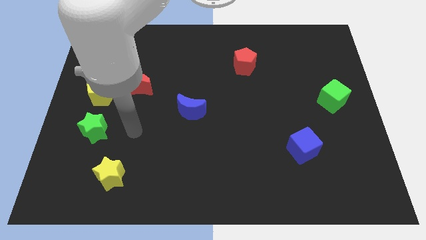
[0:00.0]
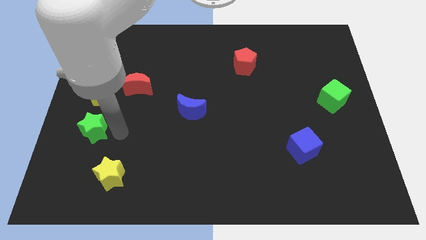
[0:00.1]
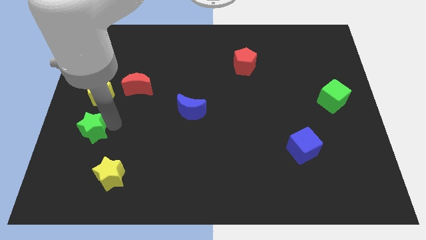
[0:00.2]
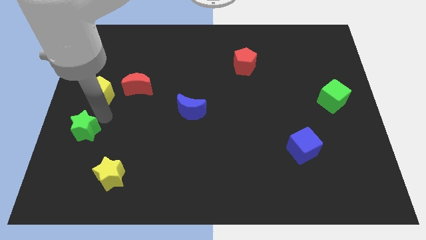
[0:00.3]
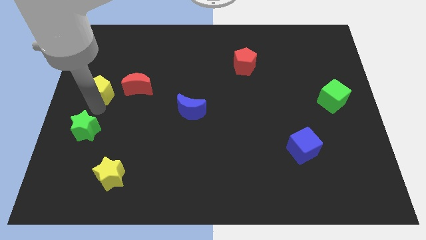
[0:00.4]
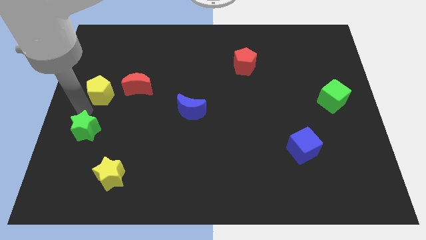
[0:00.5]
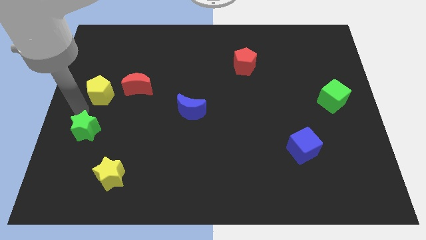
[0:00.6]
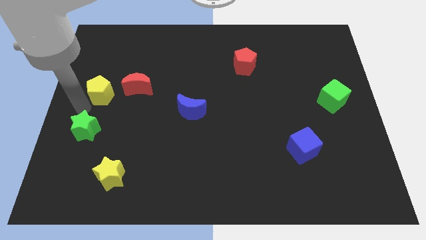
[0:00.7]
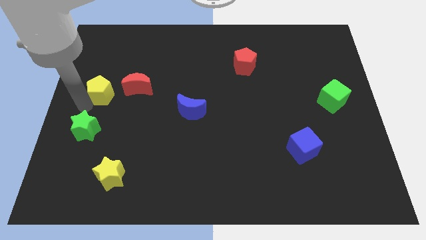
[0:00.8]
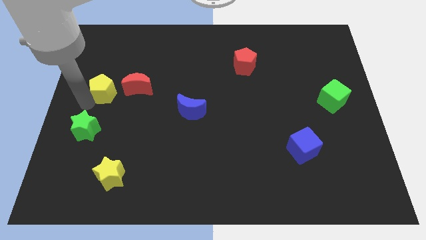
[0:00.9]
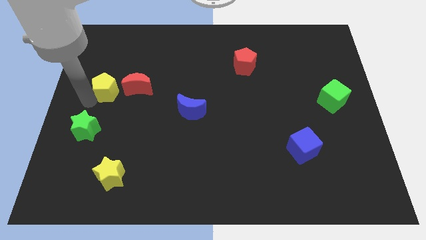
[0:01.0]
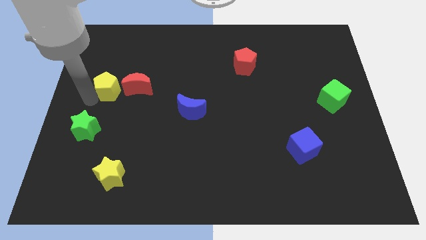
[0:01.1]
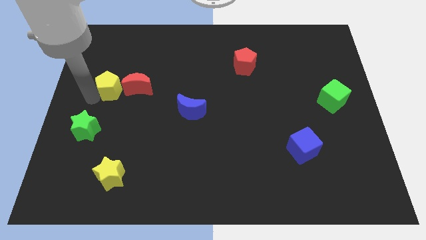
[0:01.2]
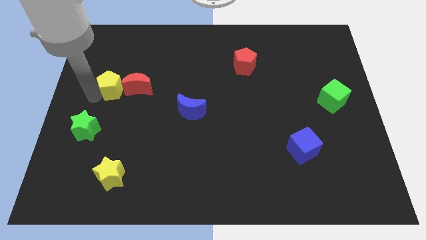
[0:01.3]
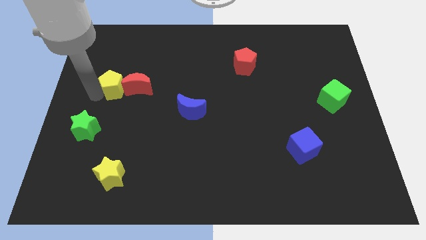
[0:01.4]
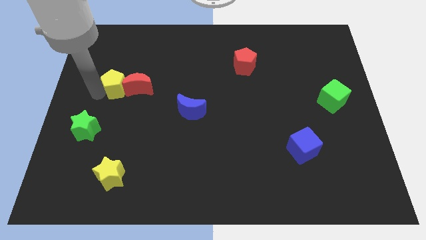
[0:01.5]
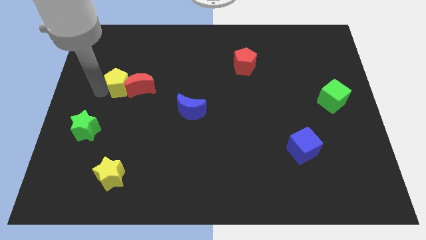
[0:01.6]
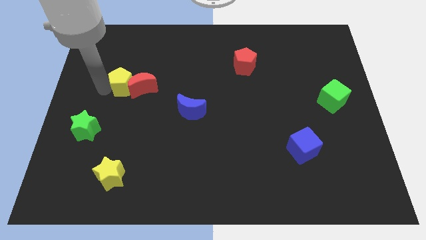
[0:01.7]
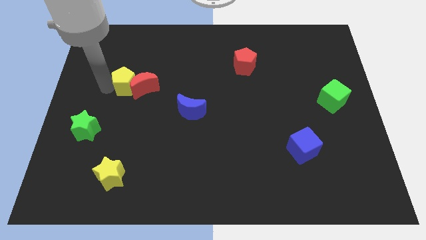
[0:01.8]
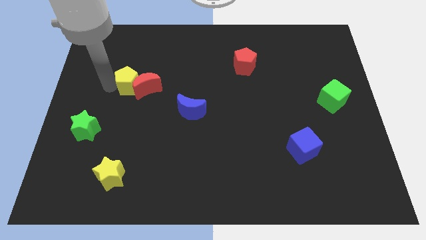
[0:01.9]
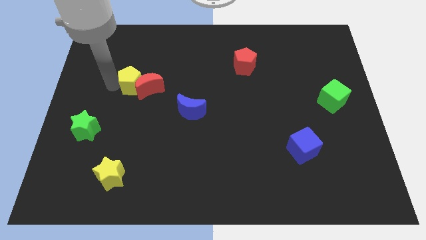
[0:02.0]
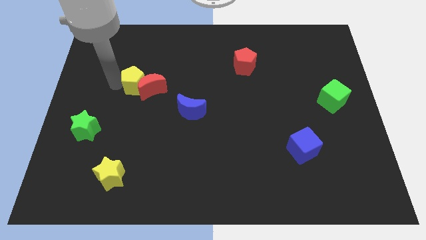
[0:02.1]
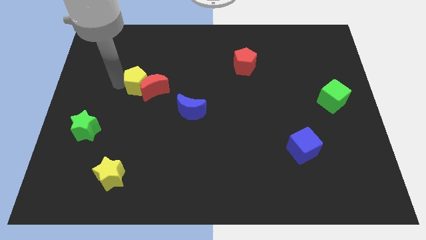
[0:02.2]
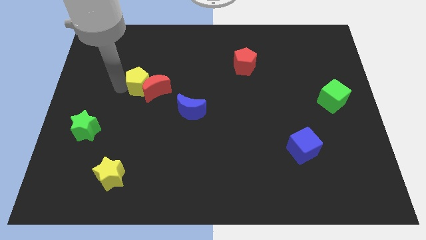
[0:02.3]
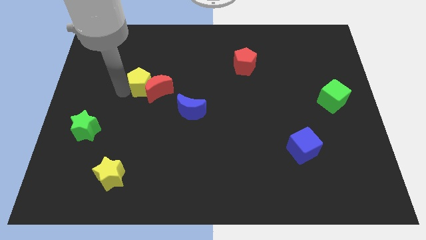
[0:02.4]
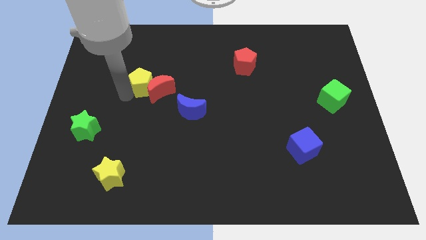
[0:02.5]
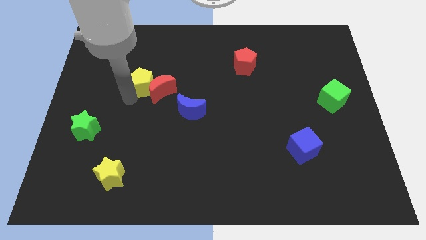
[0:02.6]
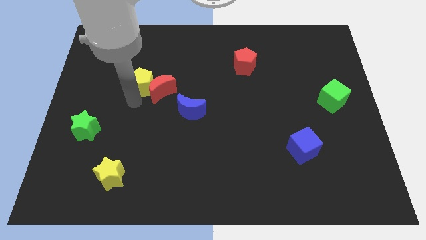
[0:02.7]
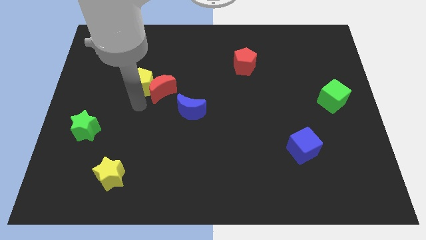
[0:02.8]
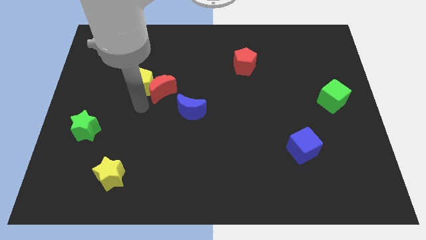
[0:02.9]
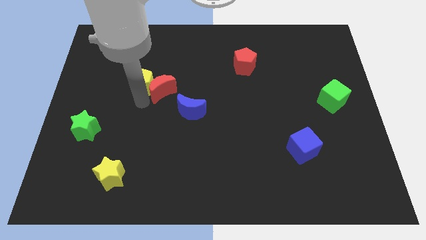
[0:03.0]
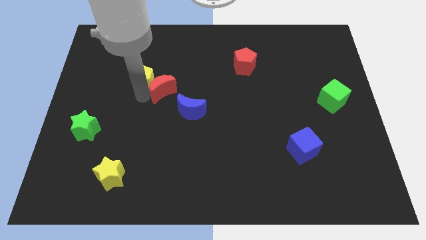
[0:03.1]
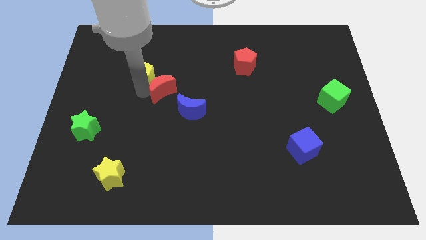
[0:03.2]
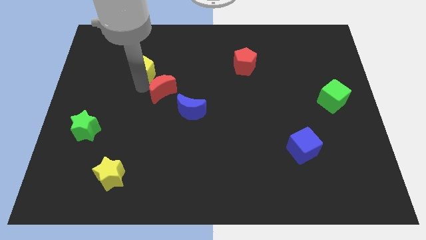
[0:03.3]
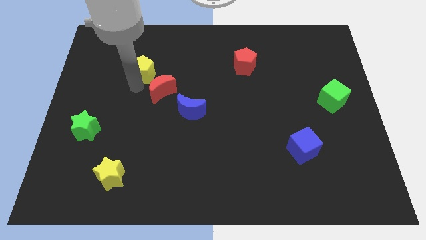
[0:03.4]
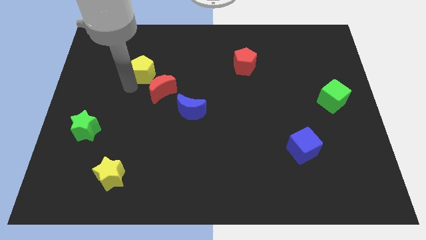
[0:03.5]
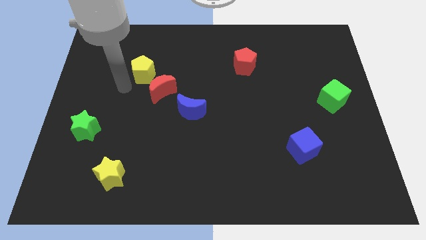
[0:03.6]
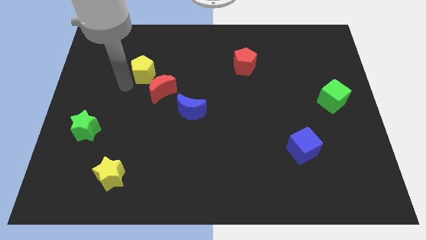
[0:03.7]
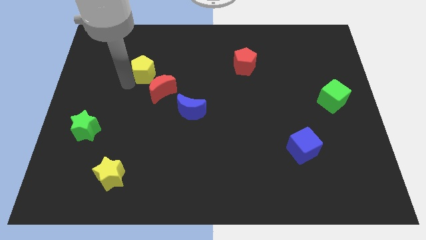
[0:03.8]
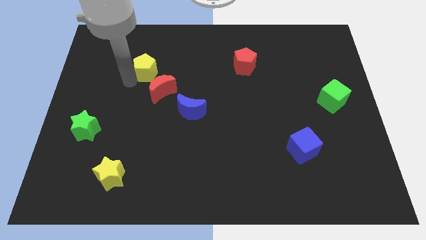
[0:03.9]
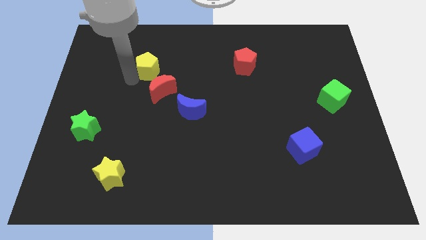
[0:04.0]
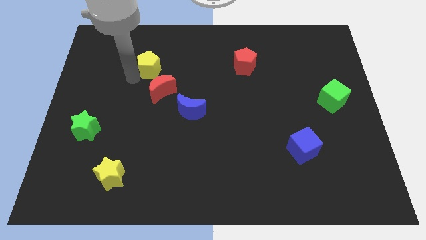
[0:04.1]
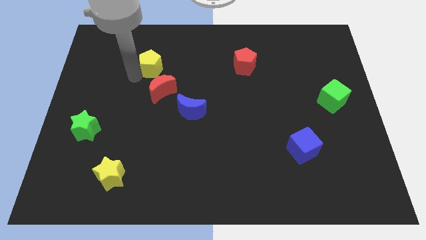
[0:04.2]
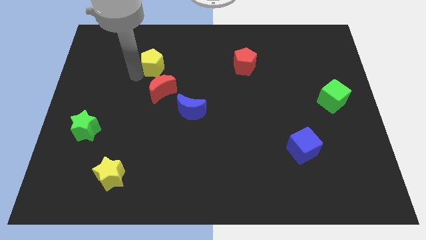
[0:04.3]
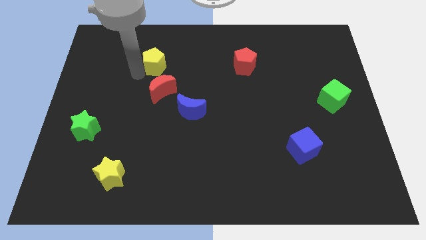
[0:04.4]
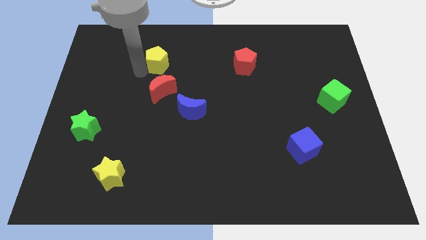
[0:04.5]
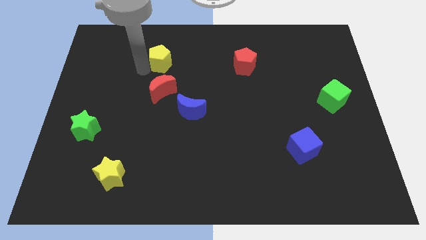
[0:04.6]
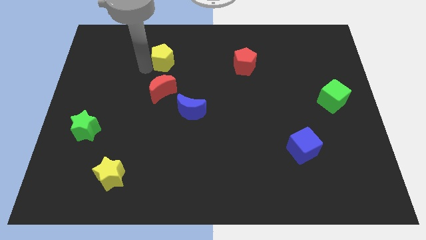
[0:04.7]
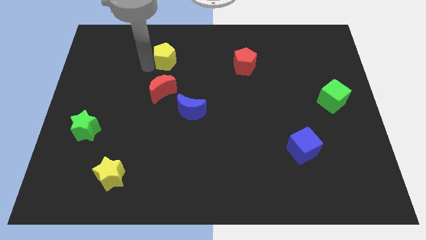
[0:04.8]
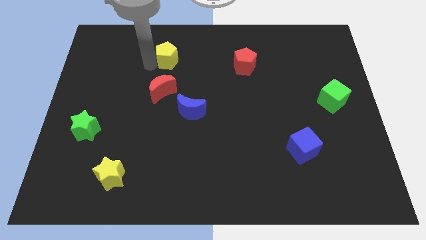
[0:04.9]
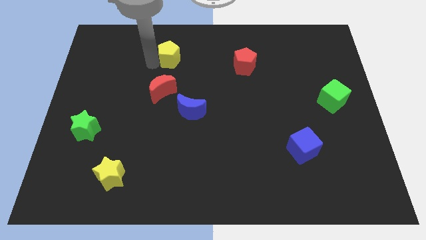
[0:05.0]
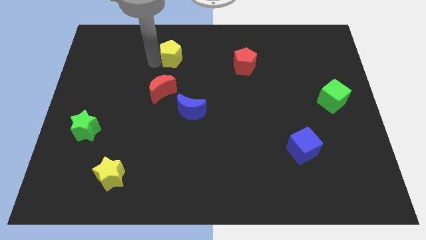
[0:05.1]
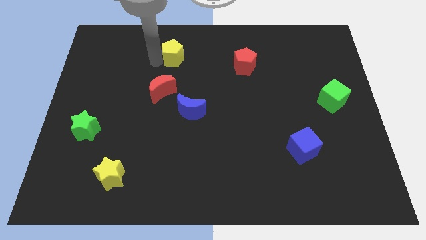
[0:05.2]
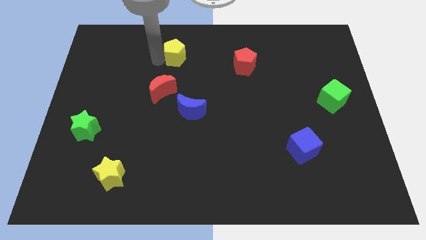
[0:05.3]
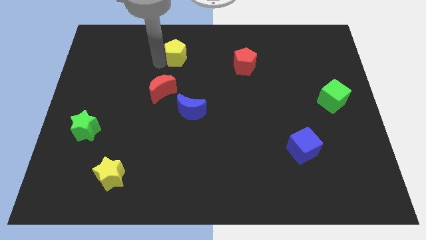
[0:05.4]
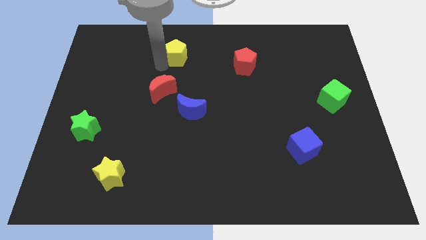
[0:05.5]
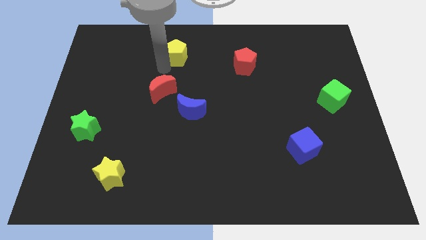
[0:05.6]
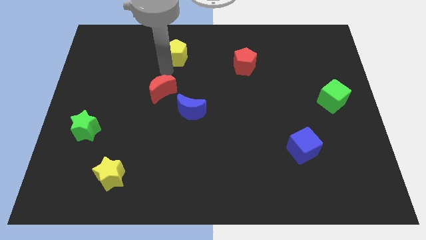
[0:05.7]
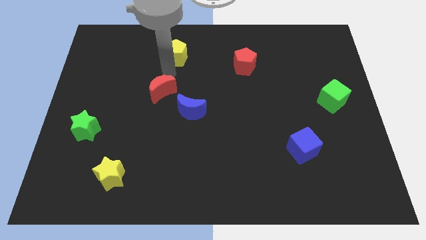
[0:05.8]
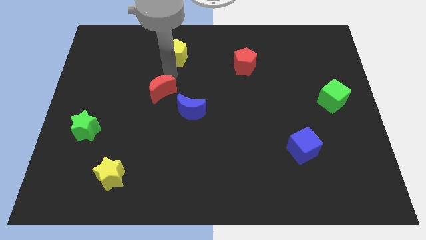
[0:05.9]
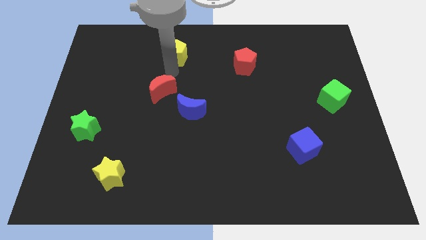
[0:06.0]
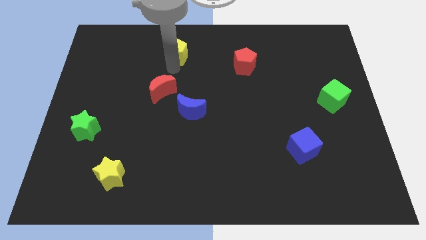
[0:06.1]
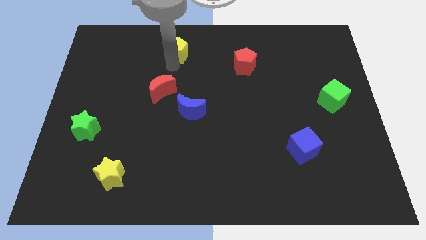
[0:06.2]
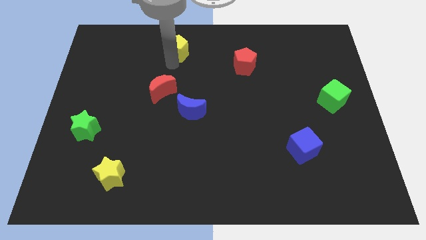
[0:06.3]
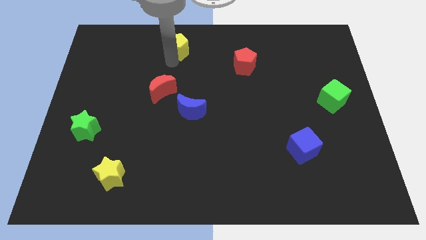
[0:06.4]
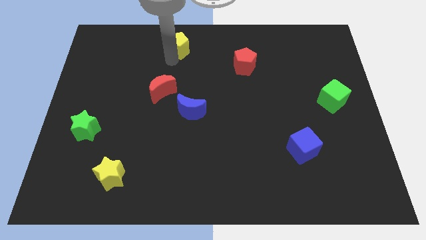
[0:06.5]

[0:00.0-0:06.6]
put the yellow pentagon to the towards your base
